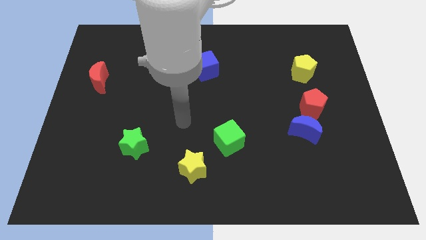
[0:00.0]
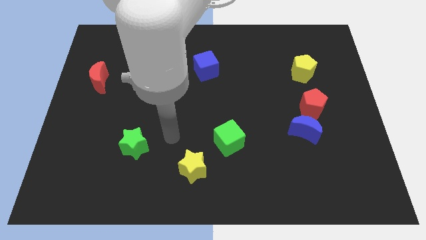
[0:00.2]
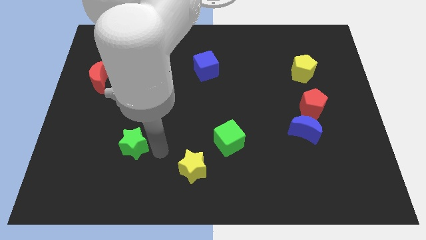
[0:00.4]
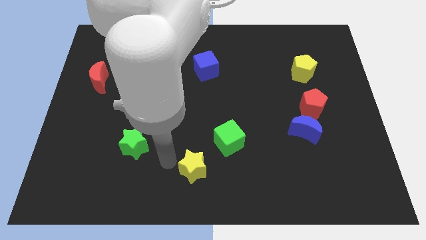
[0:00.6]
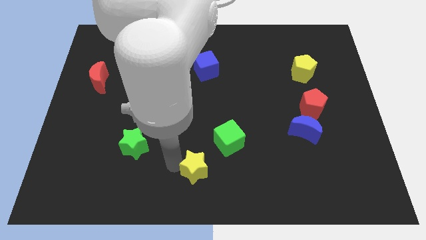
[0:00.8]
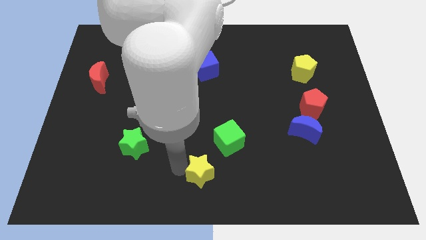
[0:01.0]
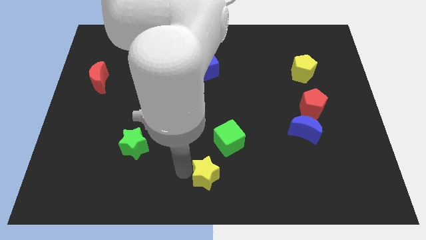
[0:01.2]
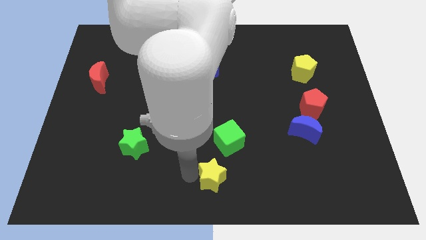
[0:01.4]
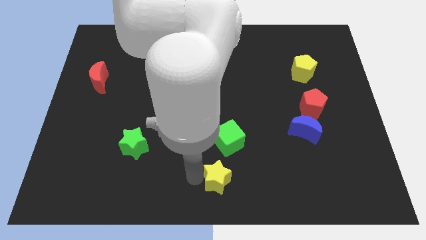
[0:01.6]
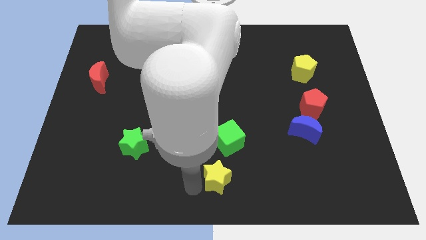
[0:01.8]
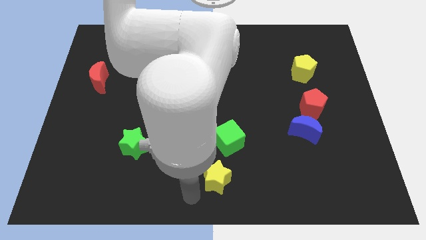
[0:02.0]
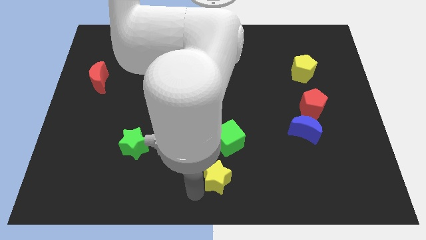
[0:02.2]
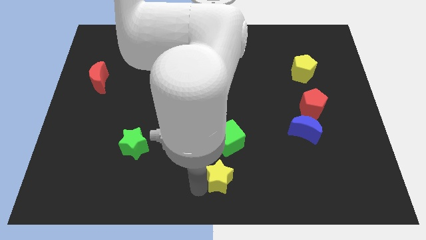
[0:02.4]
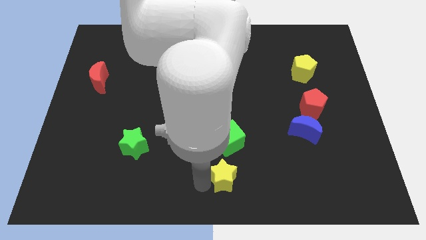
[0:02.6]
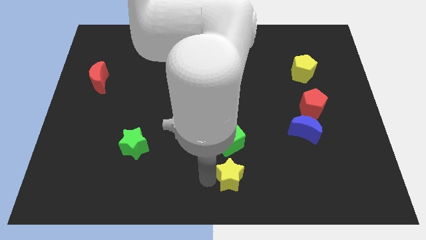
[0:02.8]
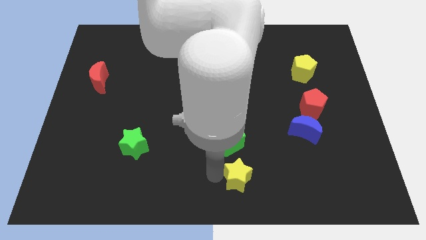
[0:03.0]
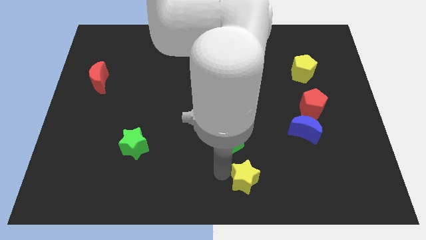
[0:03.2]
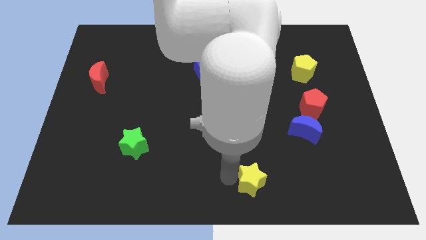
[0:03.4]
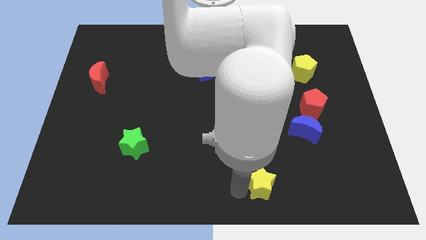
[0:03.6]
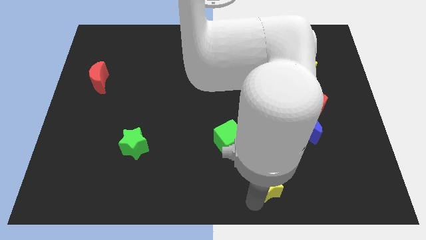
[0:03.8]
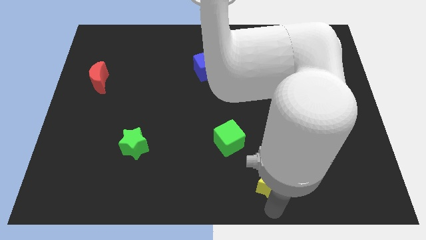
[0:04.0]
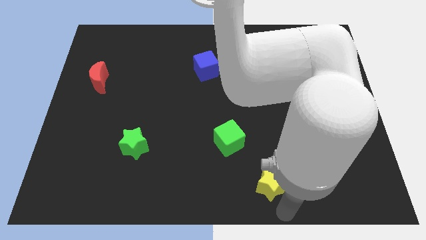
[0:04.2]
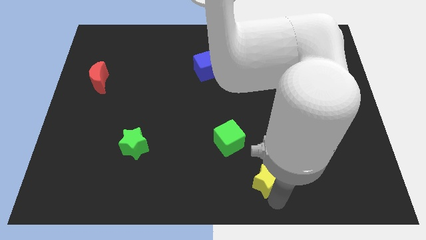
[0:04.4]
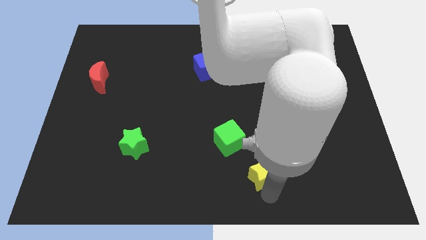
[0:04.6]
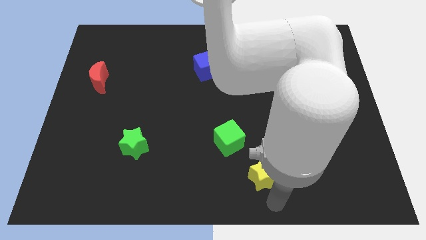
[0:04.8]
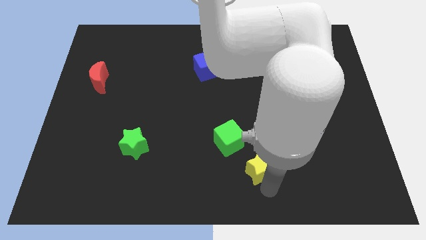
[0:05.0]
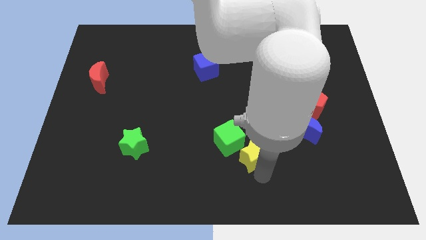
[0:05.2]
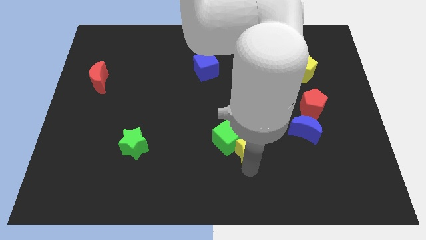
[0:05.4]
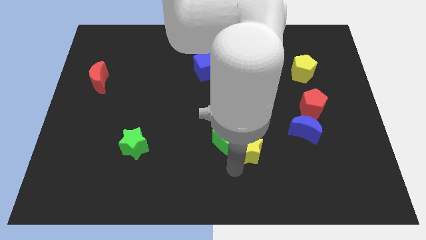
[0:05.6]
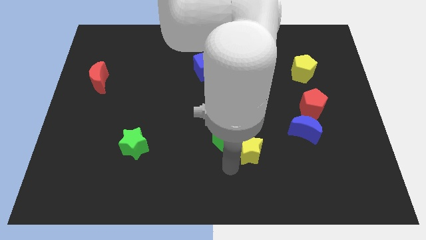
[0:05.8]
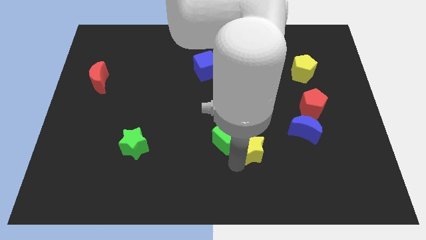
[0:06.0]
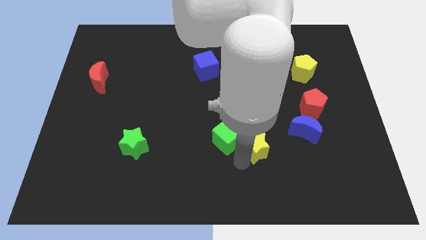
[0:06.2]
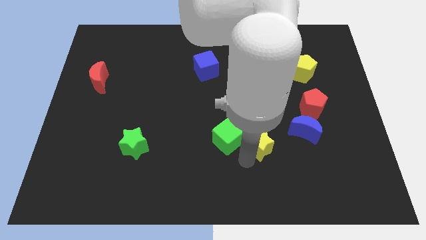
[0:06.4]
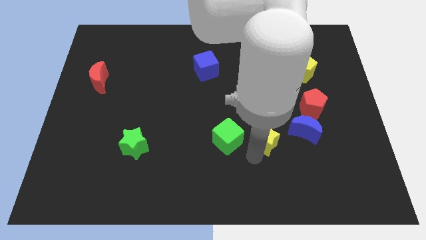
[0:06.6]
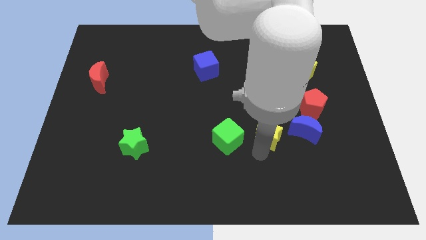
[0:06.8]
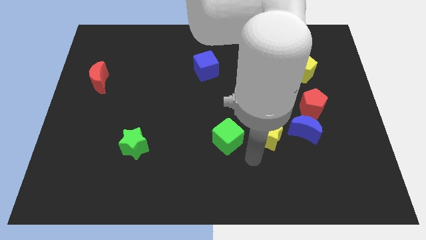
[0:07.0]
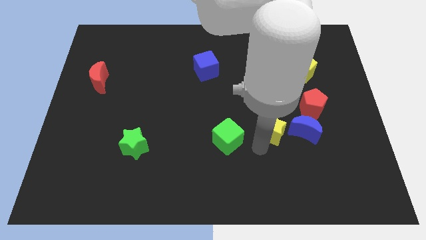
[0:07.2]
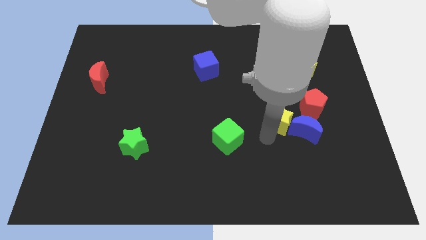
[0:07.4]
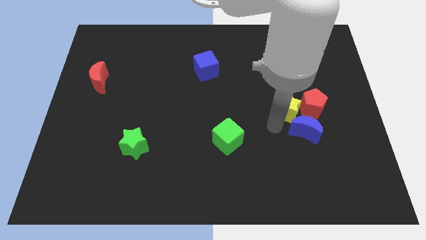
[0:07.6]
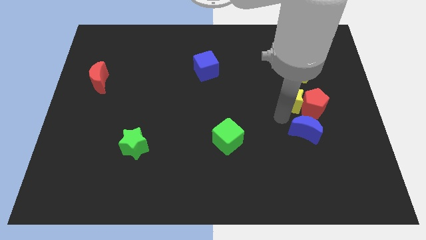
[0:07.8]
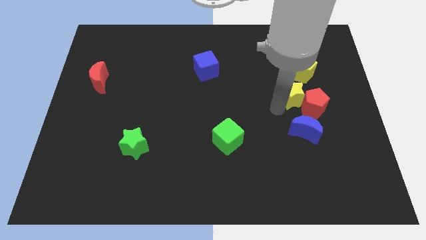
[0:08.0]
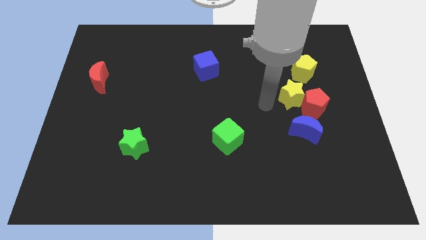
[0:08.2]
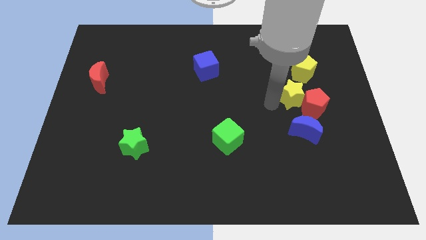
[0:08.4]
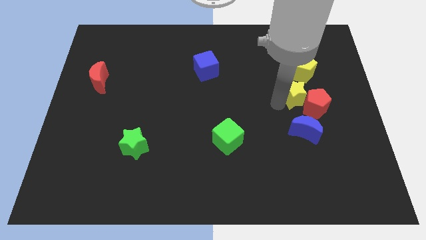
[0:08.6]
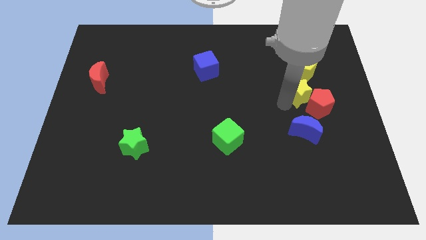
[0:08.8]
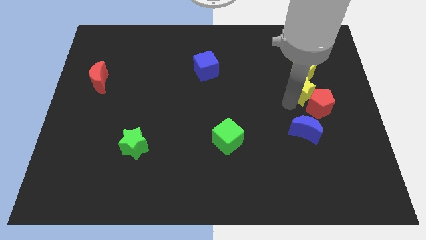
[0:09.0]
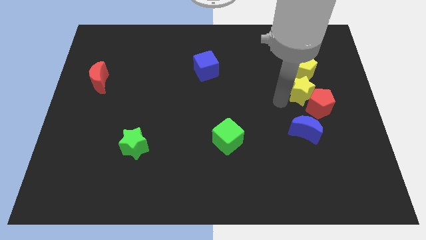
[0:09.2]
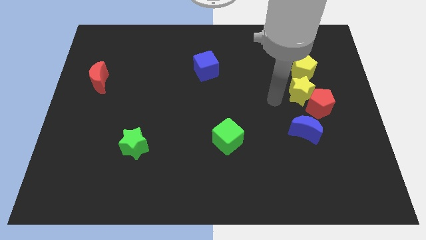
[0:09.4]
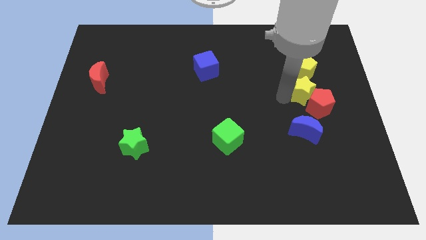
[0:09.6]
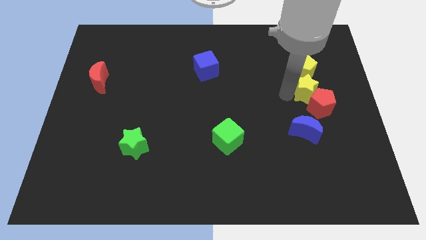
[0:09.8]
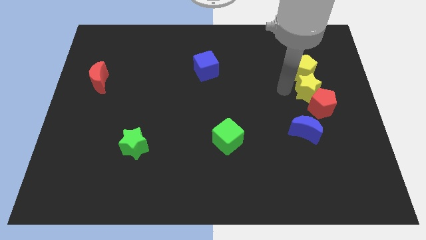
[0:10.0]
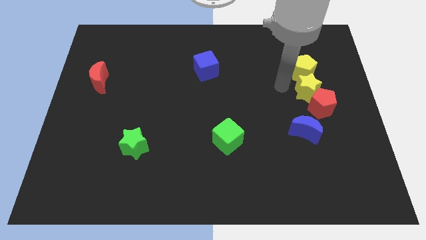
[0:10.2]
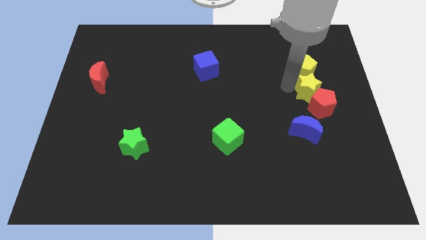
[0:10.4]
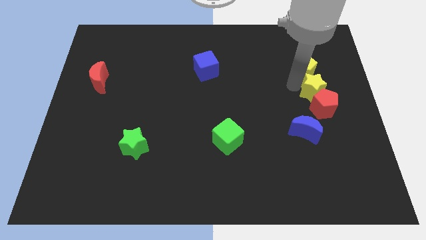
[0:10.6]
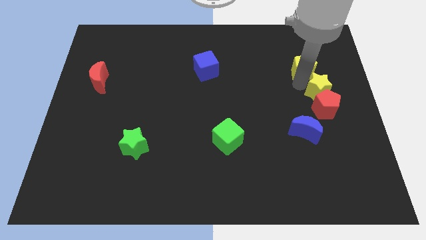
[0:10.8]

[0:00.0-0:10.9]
move the yellow star to the right side

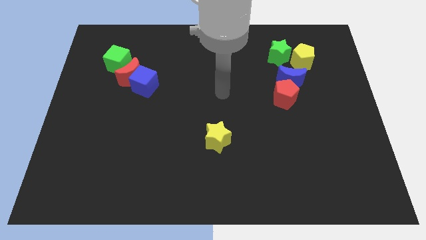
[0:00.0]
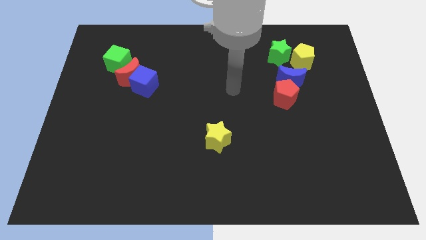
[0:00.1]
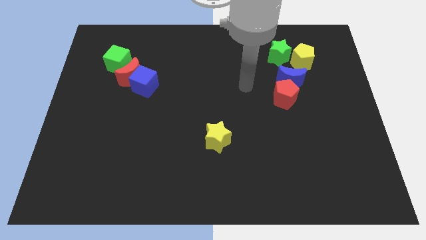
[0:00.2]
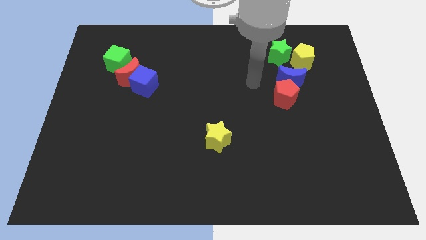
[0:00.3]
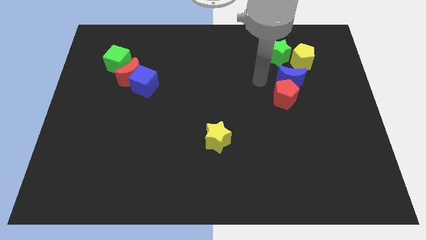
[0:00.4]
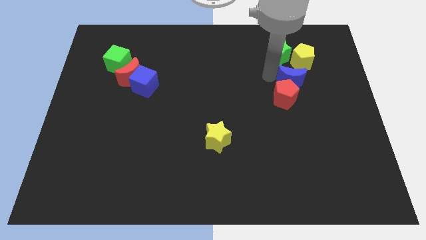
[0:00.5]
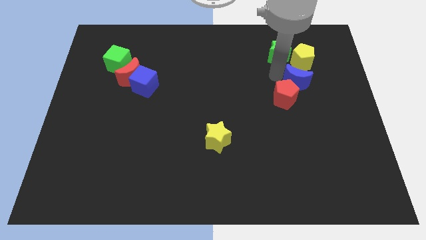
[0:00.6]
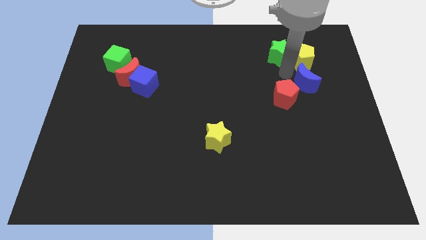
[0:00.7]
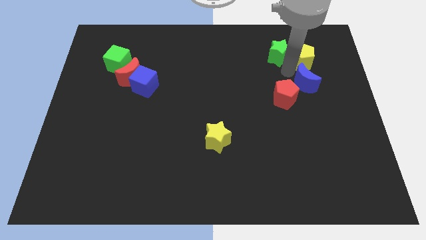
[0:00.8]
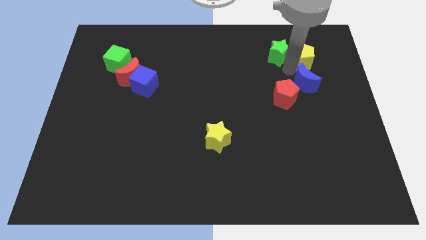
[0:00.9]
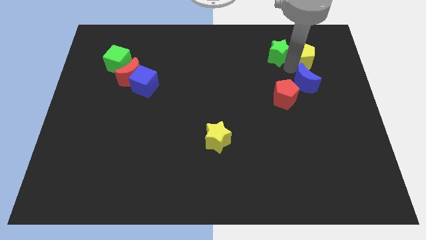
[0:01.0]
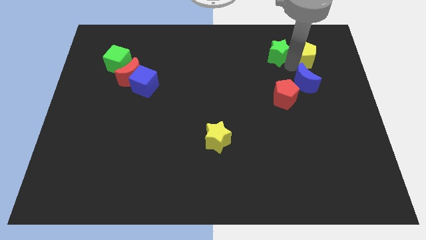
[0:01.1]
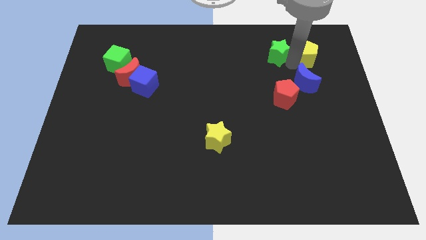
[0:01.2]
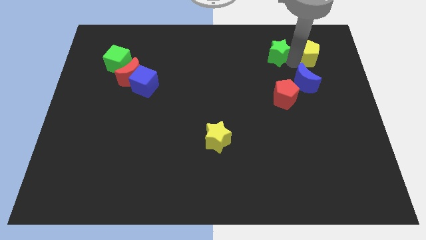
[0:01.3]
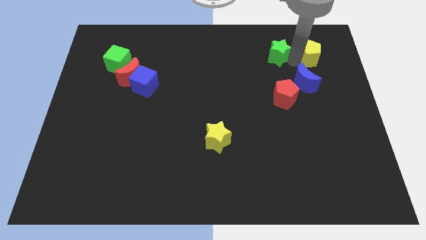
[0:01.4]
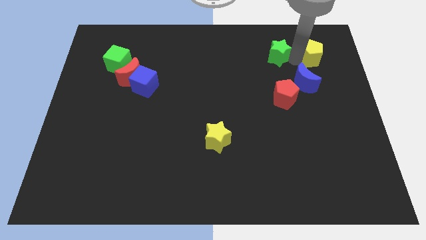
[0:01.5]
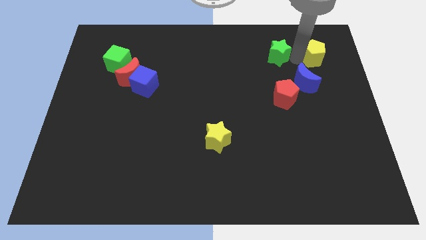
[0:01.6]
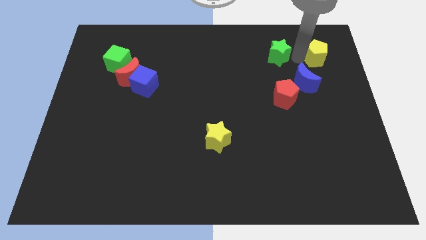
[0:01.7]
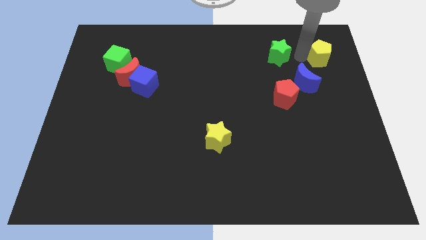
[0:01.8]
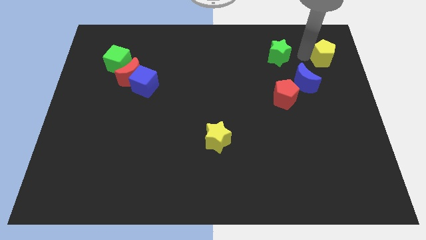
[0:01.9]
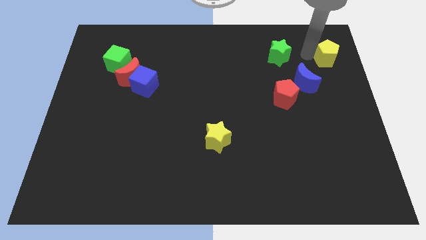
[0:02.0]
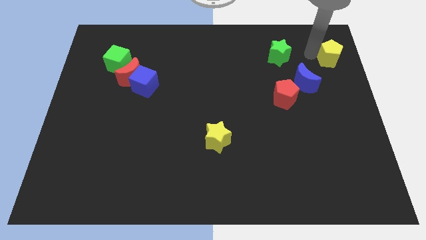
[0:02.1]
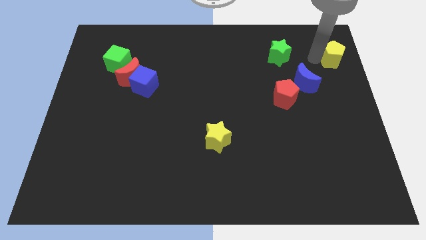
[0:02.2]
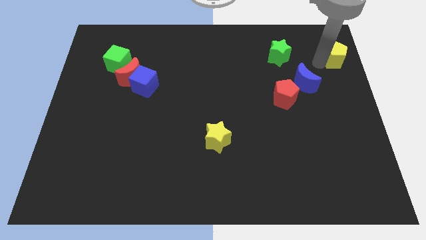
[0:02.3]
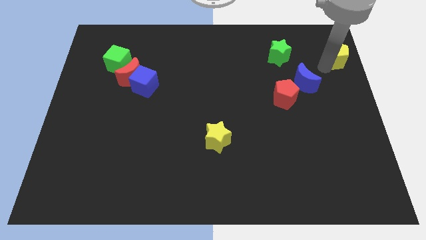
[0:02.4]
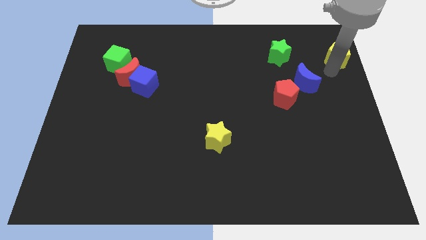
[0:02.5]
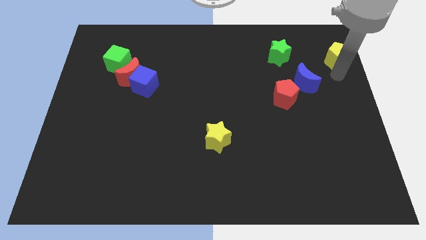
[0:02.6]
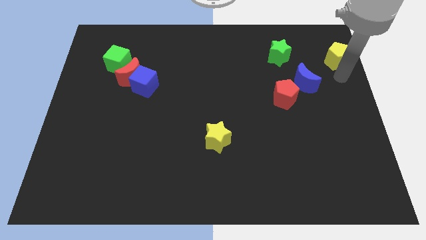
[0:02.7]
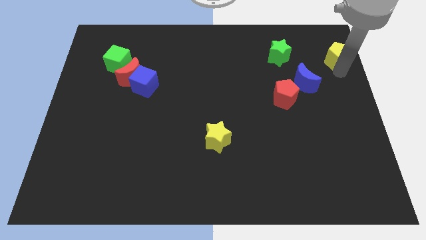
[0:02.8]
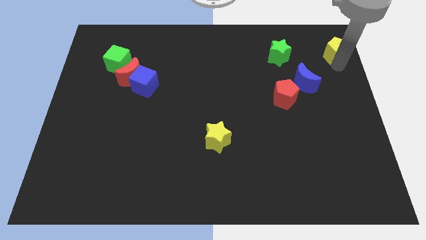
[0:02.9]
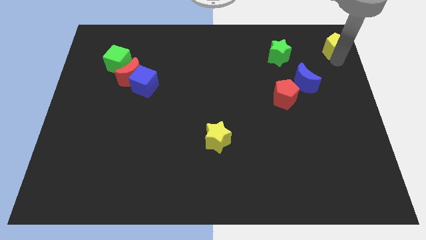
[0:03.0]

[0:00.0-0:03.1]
slide the yellow pentagon to the upper right corner
